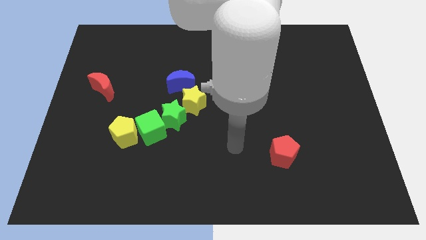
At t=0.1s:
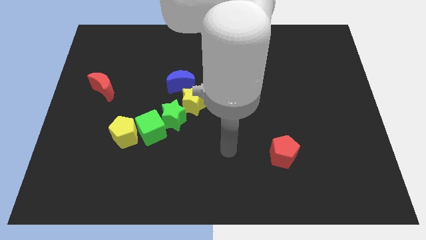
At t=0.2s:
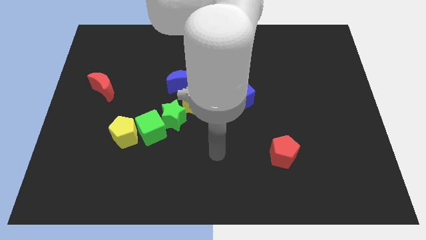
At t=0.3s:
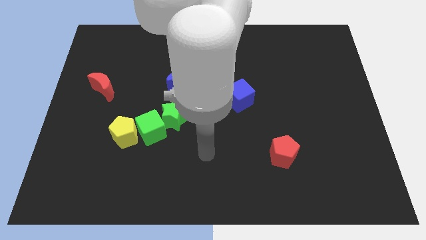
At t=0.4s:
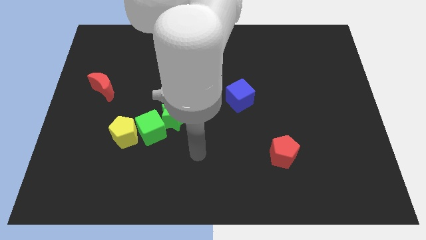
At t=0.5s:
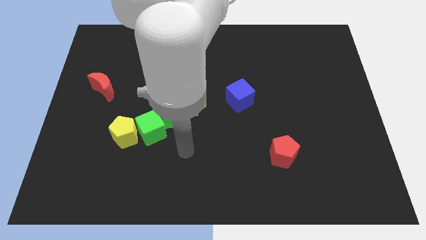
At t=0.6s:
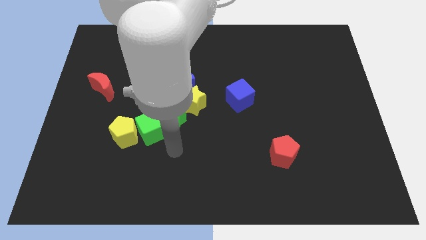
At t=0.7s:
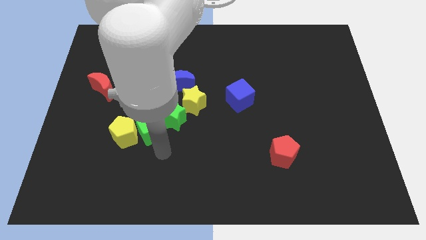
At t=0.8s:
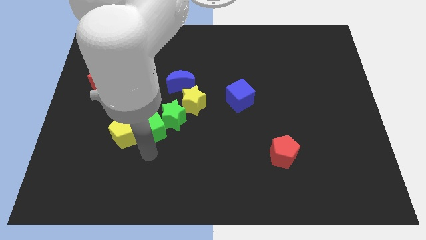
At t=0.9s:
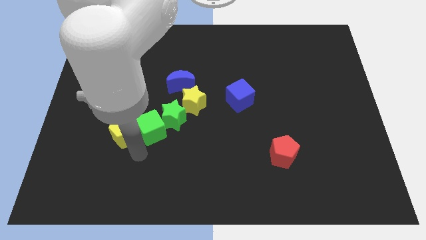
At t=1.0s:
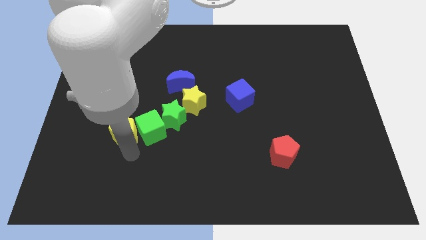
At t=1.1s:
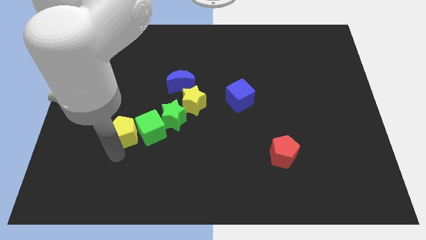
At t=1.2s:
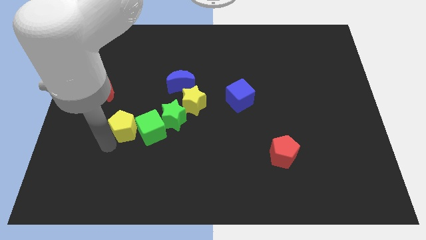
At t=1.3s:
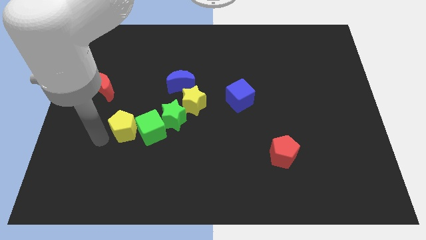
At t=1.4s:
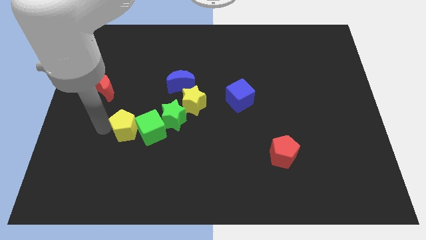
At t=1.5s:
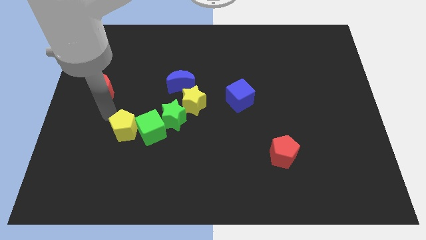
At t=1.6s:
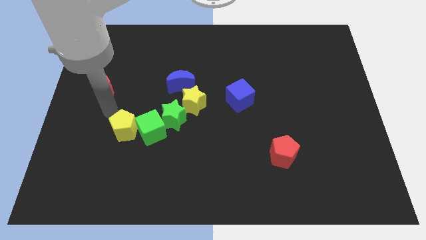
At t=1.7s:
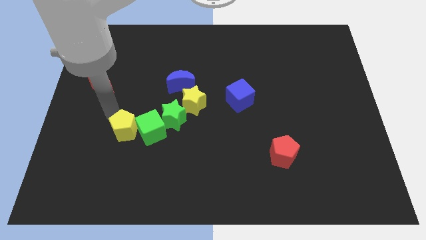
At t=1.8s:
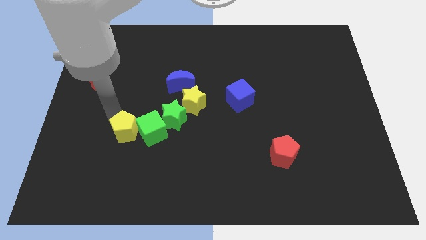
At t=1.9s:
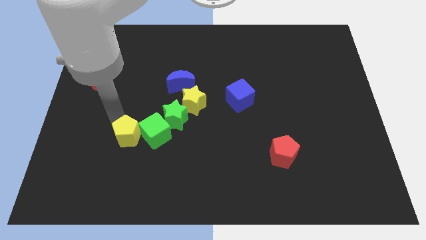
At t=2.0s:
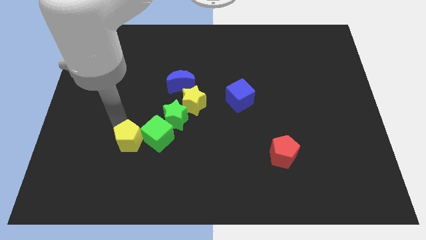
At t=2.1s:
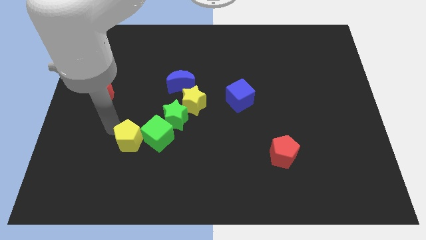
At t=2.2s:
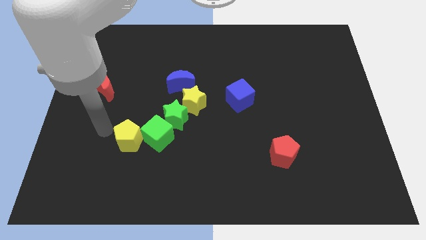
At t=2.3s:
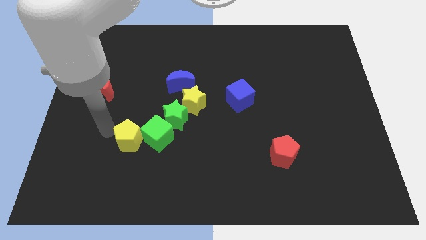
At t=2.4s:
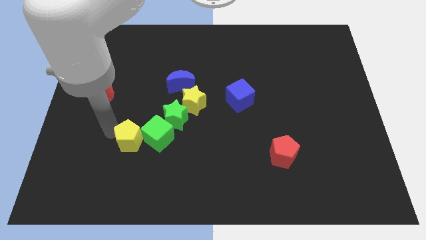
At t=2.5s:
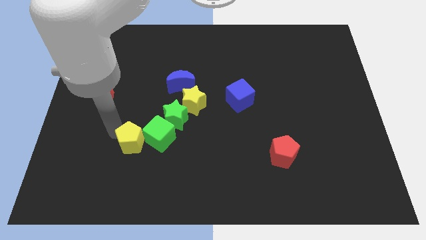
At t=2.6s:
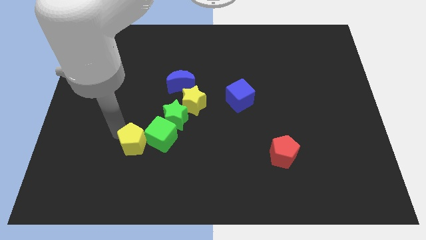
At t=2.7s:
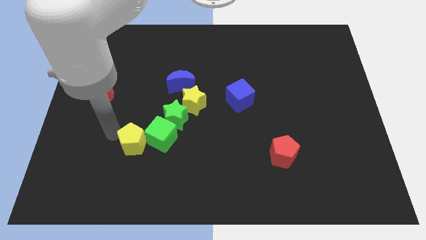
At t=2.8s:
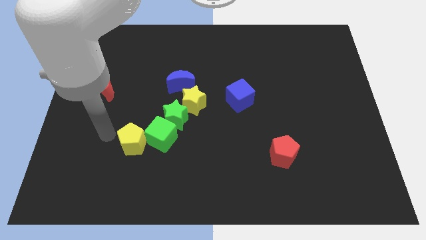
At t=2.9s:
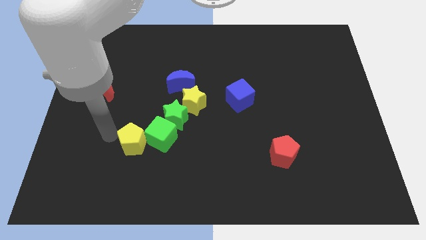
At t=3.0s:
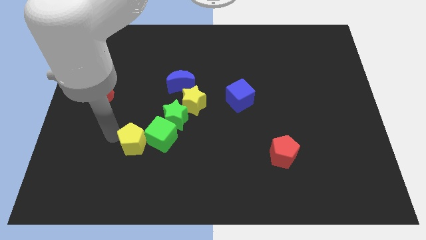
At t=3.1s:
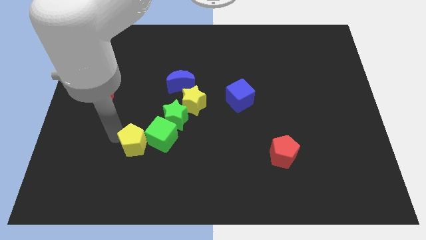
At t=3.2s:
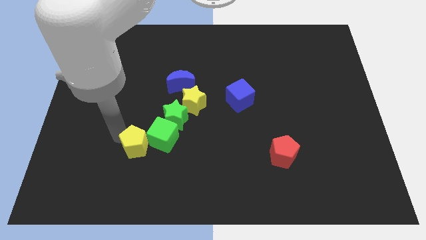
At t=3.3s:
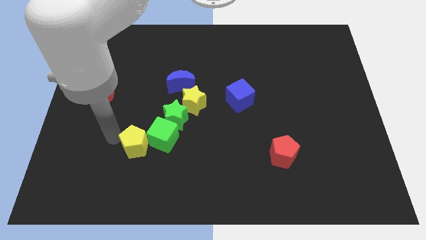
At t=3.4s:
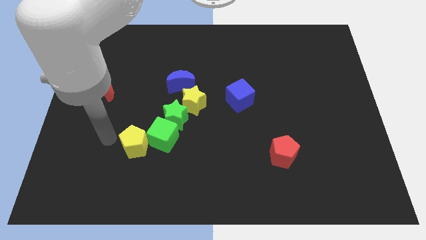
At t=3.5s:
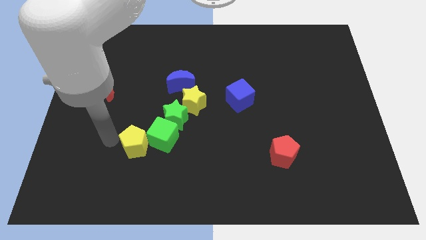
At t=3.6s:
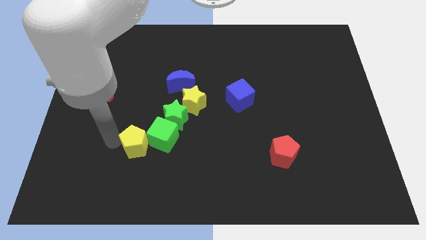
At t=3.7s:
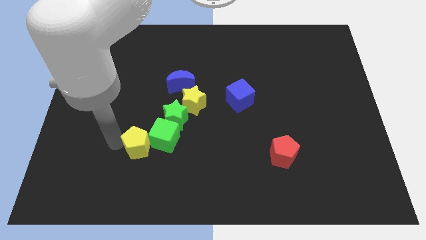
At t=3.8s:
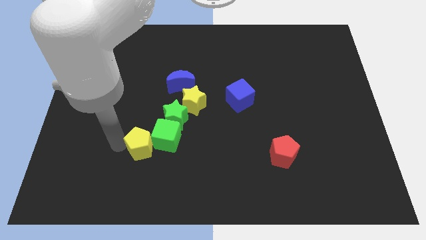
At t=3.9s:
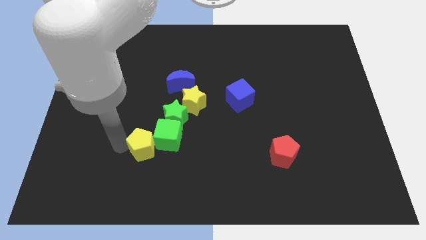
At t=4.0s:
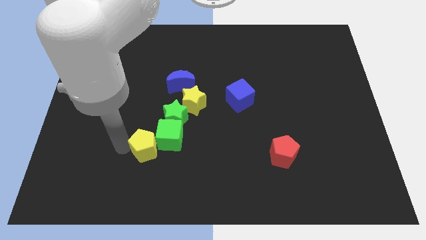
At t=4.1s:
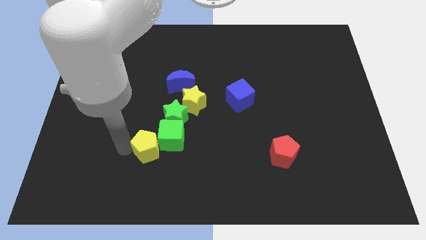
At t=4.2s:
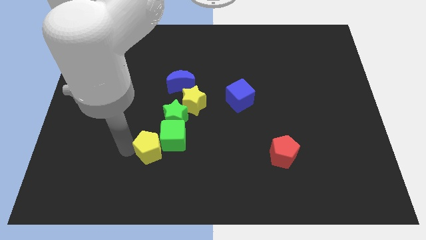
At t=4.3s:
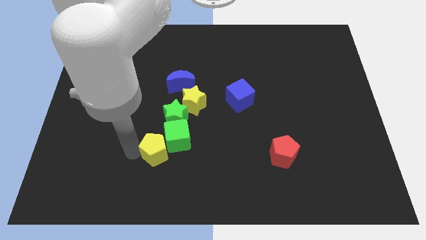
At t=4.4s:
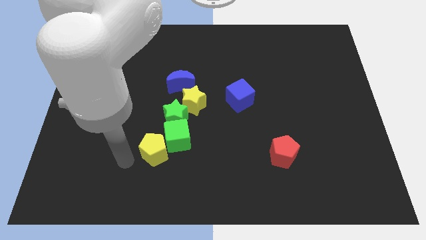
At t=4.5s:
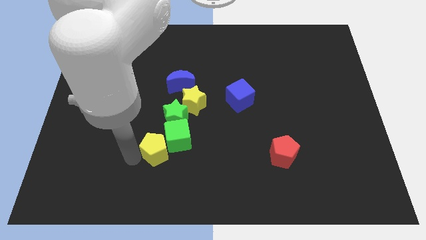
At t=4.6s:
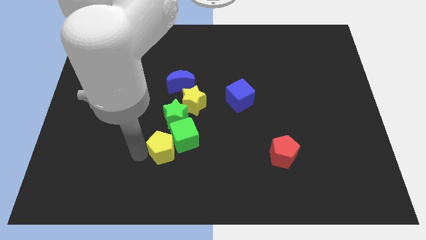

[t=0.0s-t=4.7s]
slightly push the yellow pentagon right

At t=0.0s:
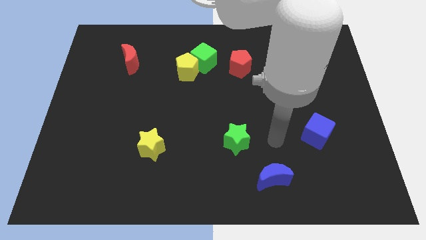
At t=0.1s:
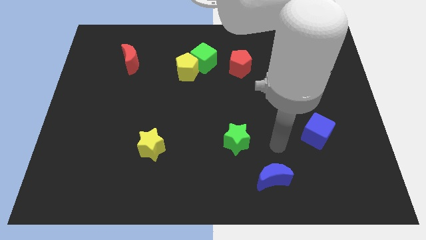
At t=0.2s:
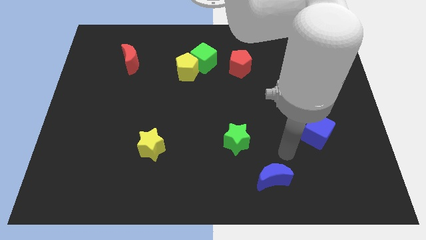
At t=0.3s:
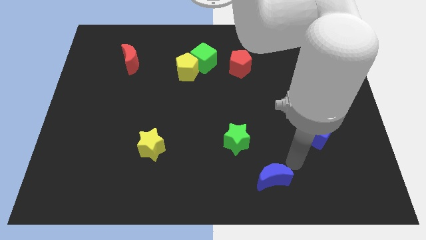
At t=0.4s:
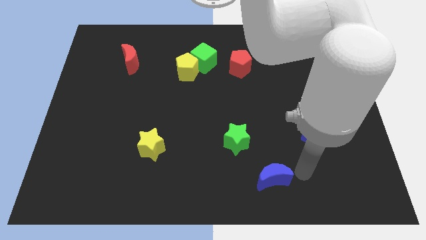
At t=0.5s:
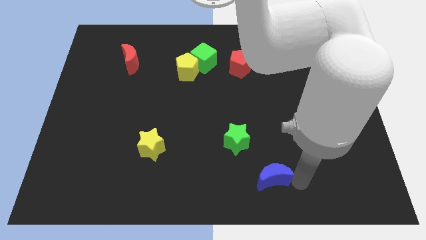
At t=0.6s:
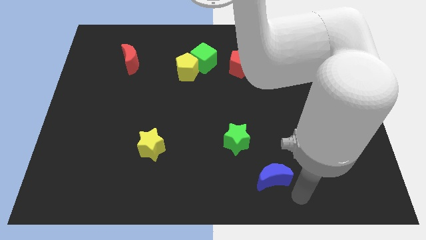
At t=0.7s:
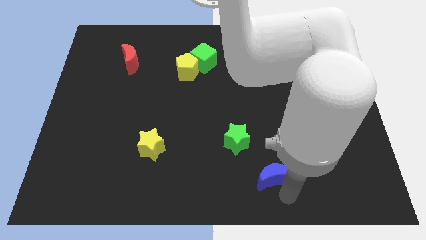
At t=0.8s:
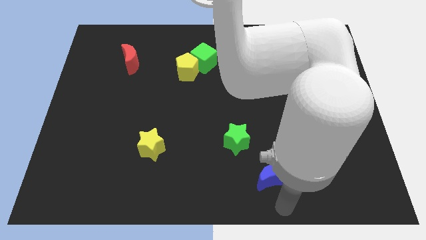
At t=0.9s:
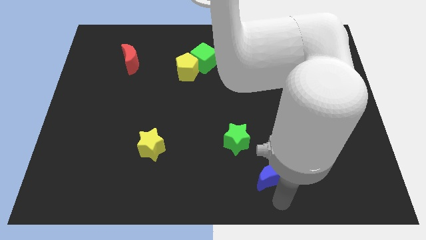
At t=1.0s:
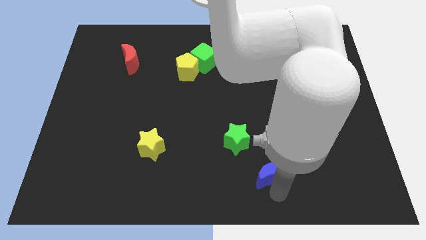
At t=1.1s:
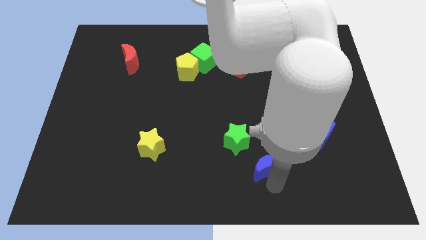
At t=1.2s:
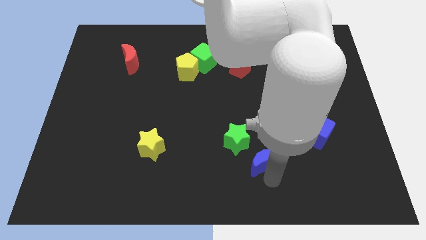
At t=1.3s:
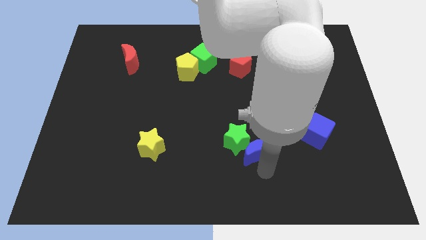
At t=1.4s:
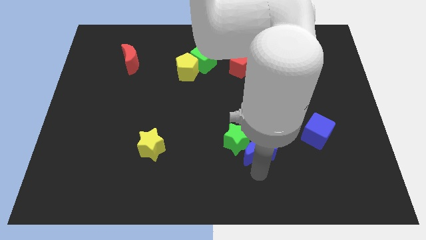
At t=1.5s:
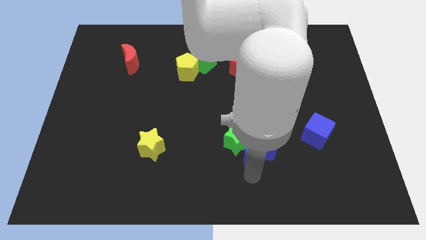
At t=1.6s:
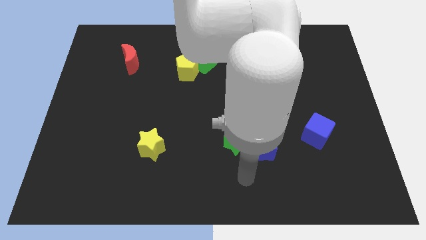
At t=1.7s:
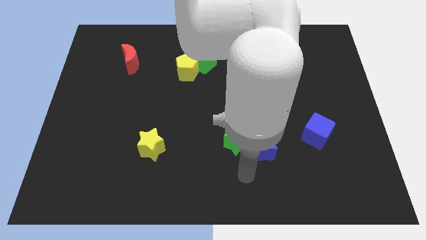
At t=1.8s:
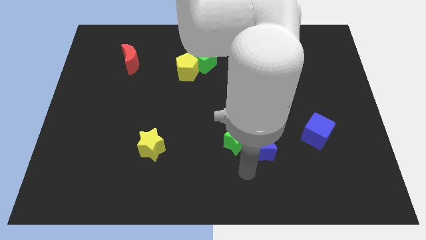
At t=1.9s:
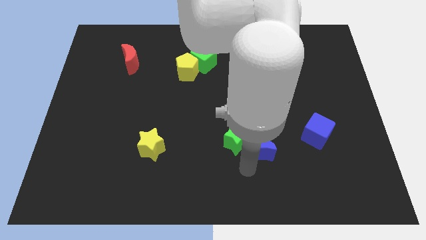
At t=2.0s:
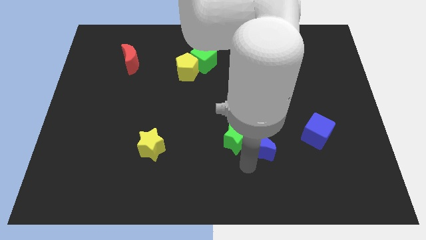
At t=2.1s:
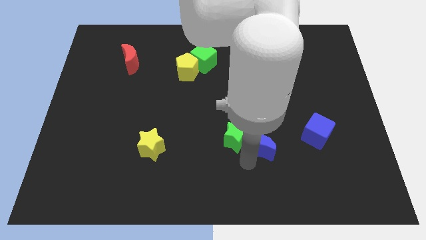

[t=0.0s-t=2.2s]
slightly push the blue moon up

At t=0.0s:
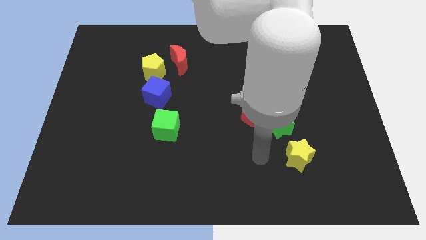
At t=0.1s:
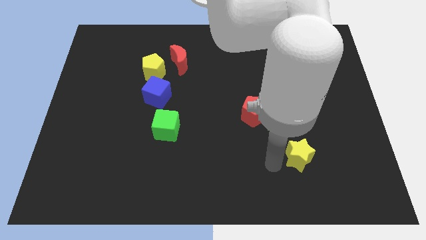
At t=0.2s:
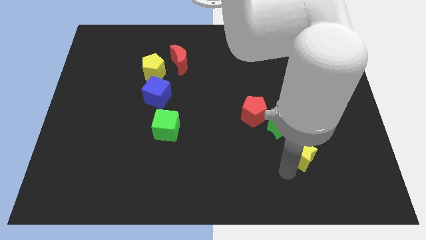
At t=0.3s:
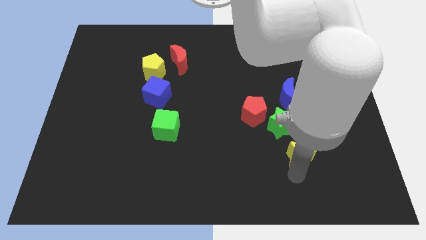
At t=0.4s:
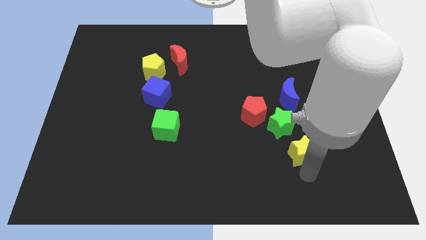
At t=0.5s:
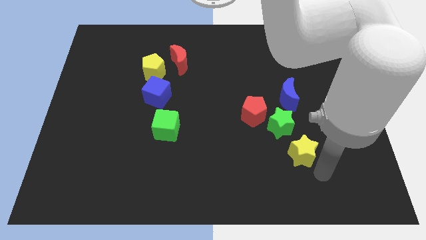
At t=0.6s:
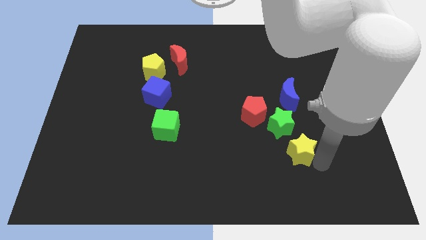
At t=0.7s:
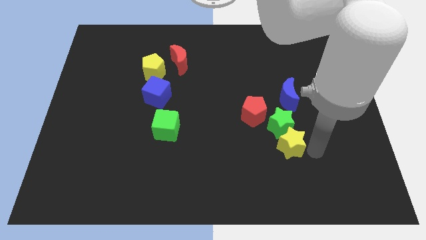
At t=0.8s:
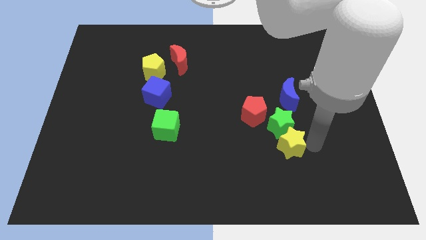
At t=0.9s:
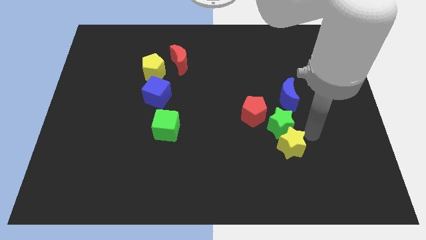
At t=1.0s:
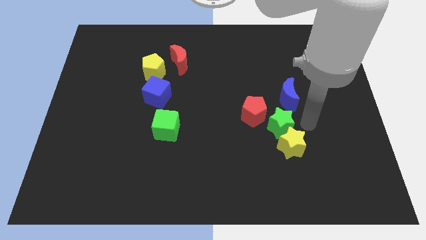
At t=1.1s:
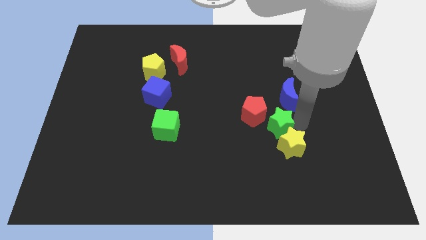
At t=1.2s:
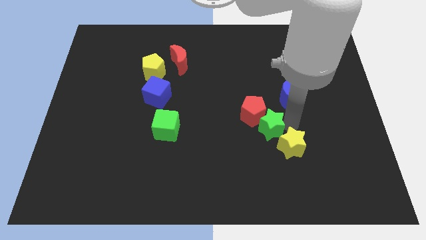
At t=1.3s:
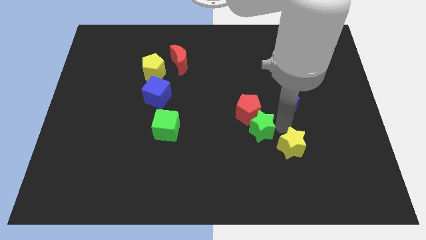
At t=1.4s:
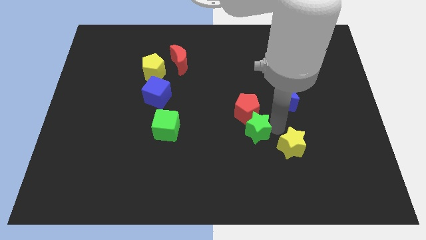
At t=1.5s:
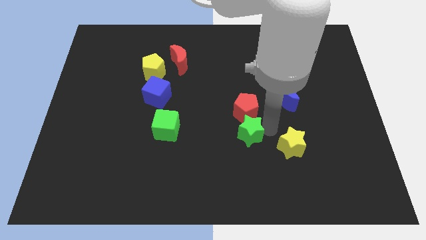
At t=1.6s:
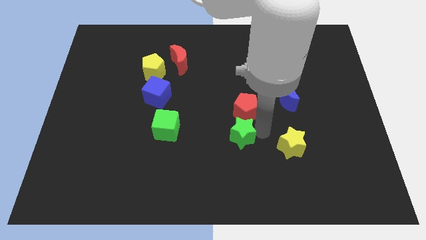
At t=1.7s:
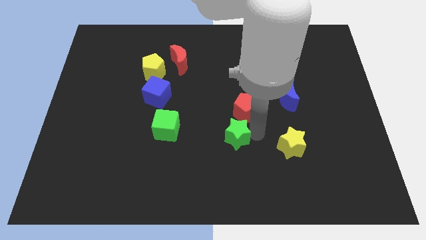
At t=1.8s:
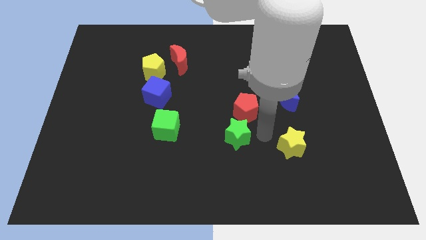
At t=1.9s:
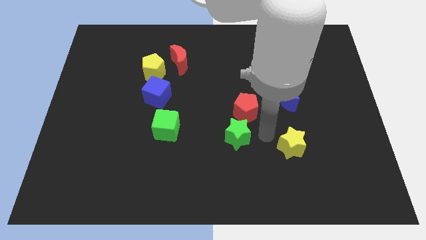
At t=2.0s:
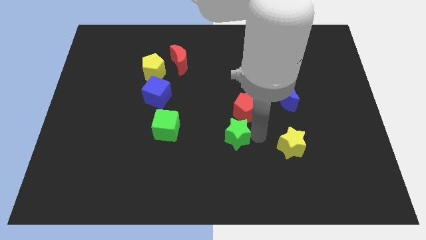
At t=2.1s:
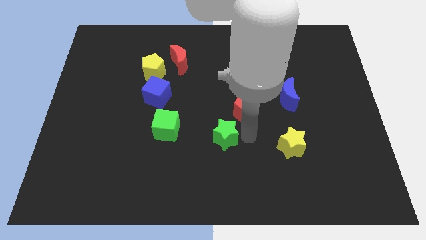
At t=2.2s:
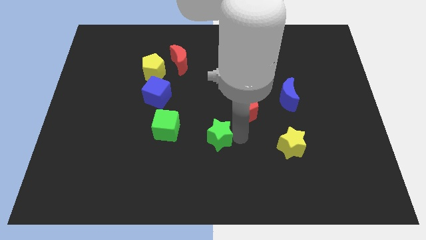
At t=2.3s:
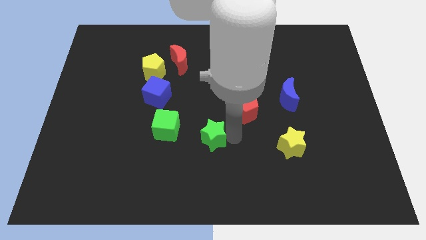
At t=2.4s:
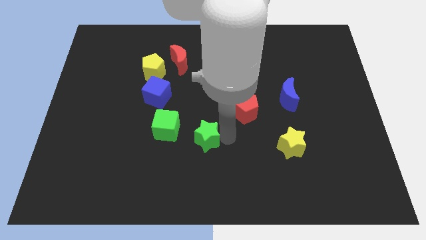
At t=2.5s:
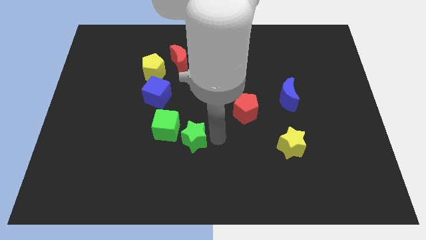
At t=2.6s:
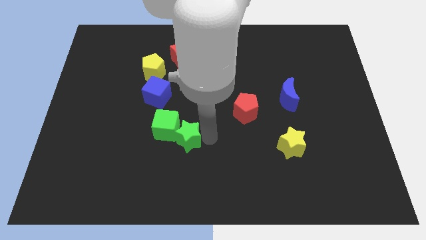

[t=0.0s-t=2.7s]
move the green star to the left
